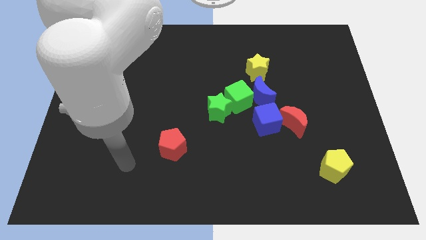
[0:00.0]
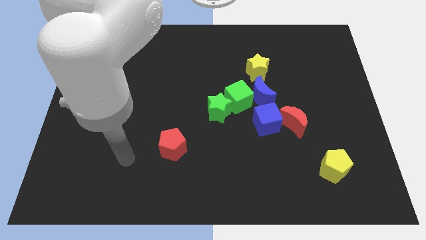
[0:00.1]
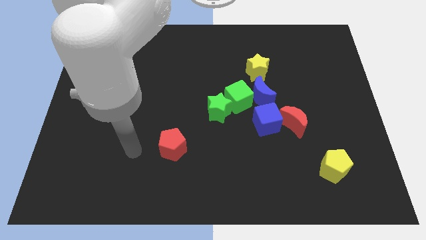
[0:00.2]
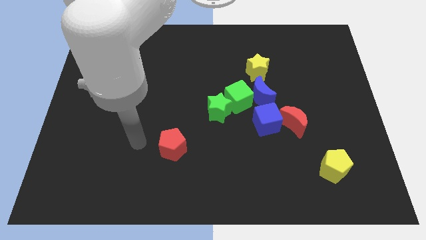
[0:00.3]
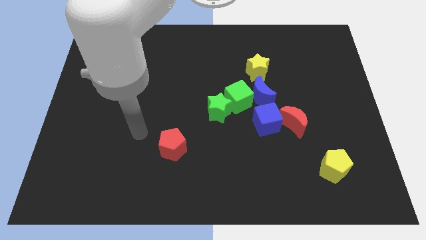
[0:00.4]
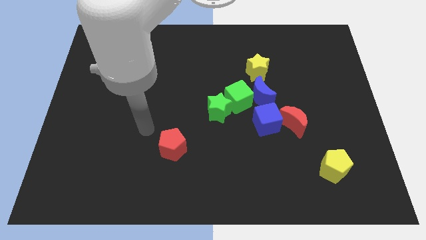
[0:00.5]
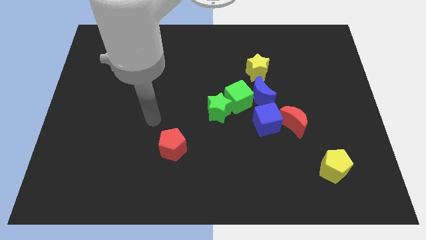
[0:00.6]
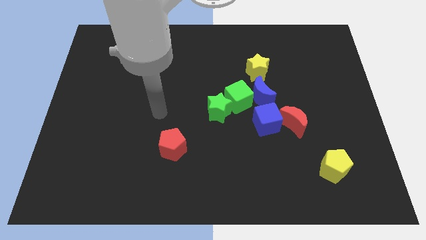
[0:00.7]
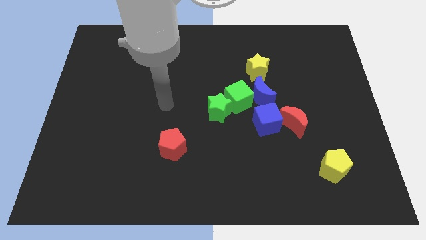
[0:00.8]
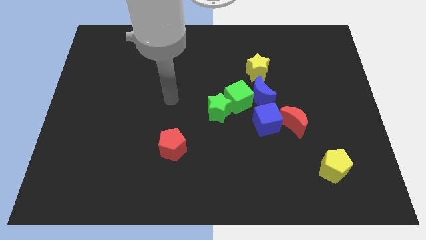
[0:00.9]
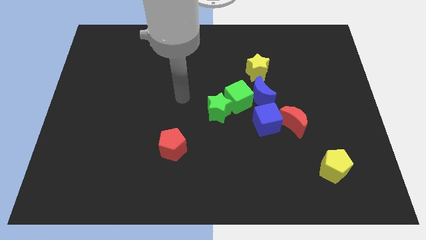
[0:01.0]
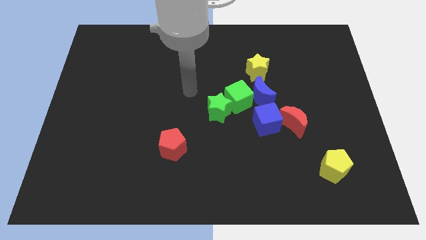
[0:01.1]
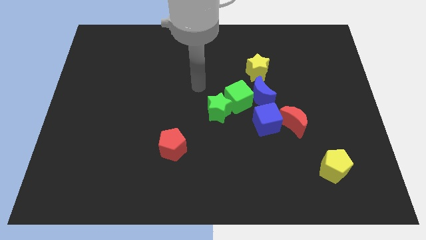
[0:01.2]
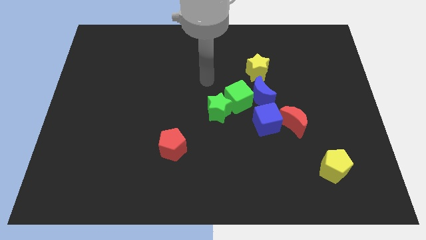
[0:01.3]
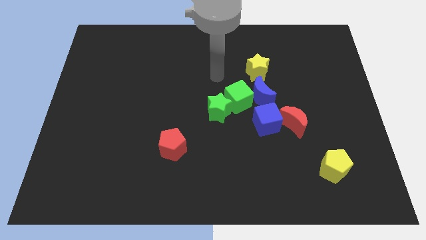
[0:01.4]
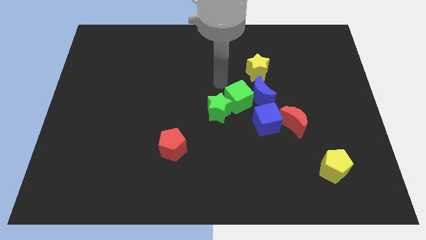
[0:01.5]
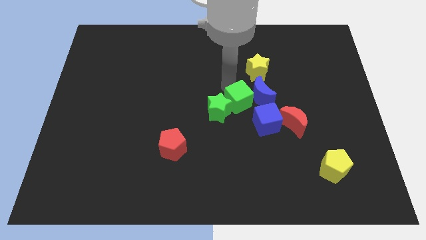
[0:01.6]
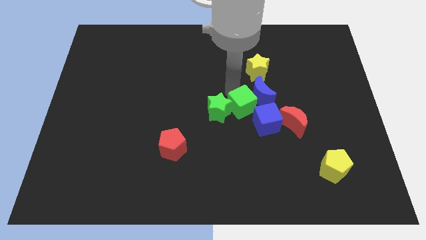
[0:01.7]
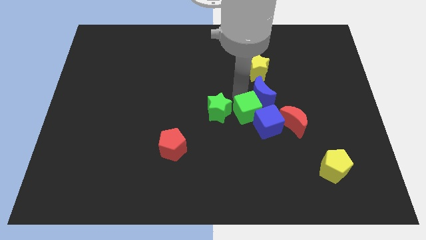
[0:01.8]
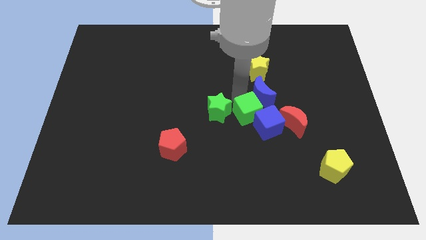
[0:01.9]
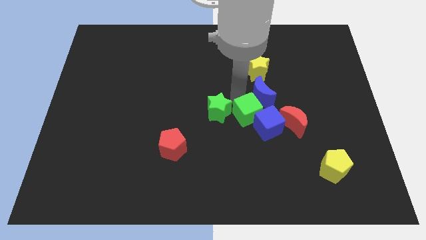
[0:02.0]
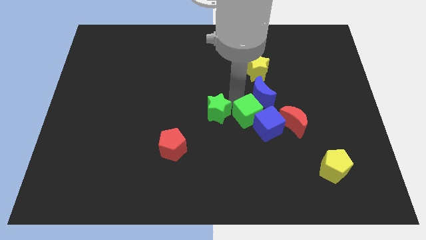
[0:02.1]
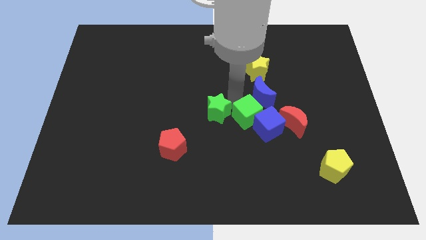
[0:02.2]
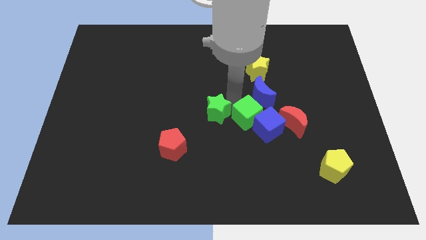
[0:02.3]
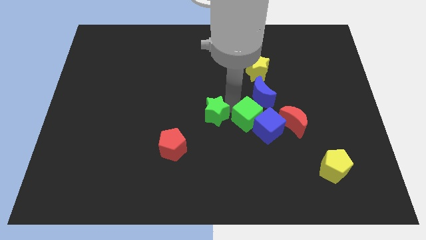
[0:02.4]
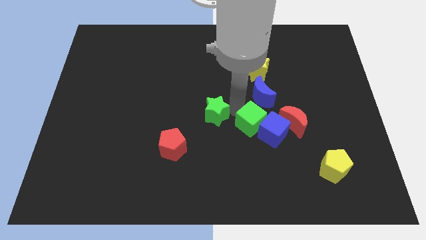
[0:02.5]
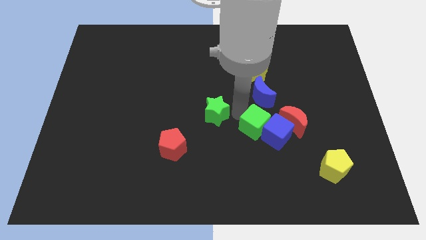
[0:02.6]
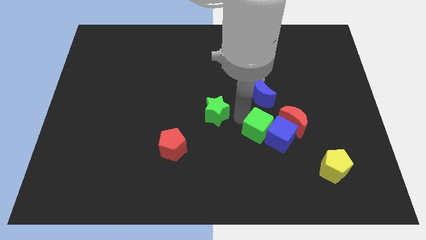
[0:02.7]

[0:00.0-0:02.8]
pull the green star apart from the green cube

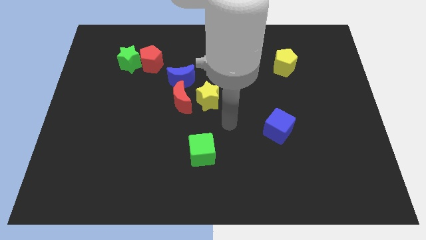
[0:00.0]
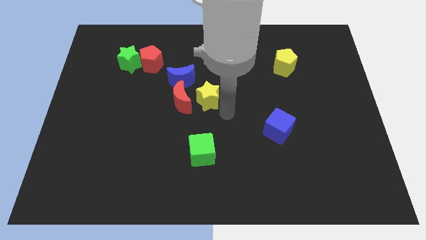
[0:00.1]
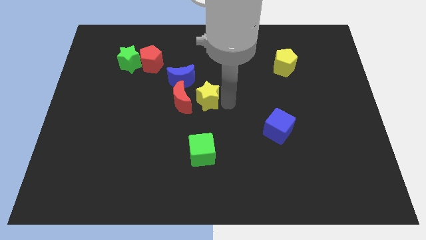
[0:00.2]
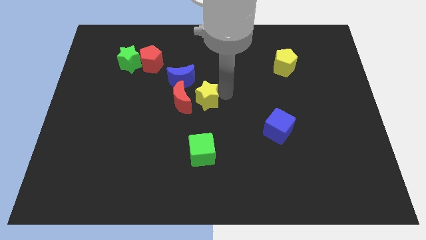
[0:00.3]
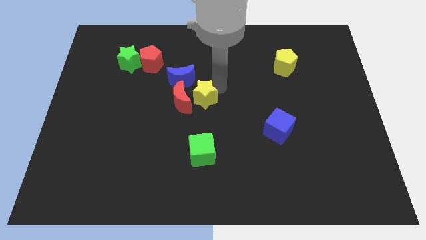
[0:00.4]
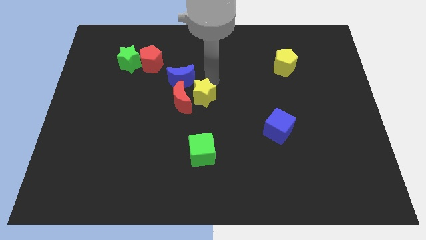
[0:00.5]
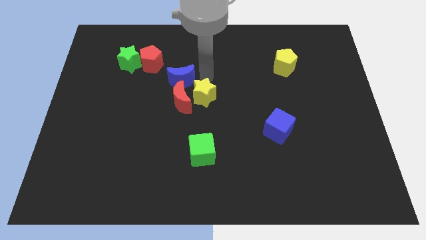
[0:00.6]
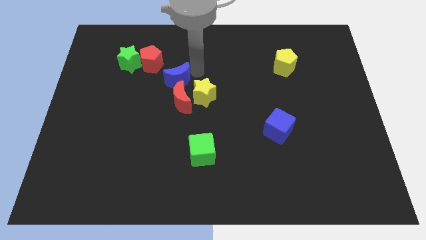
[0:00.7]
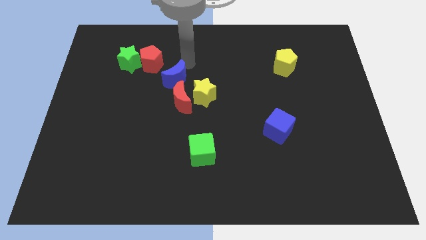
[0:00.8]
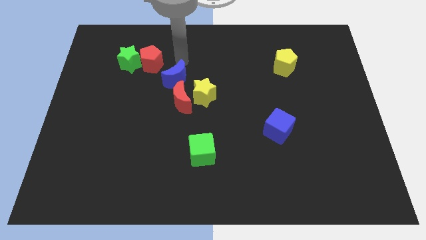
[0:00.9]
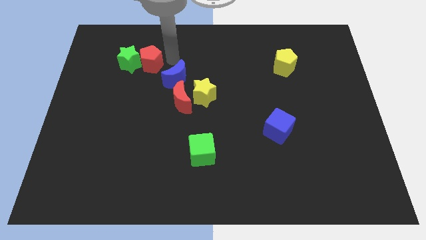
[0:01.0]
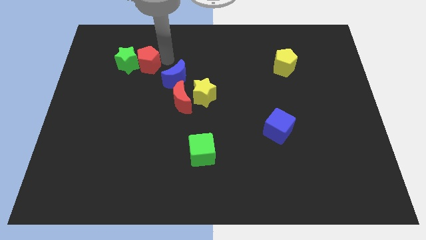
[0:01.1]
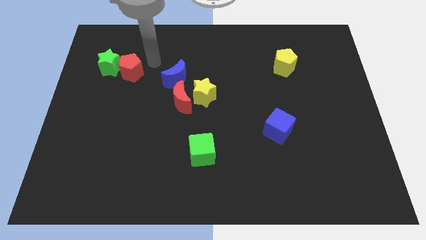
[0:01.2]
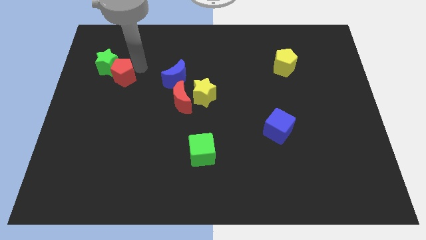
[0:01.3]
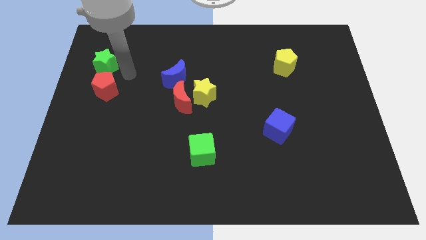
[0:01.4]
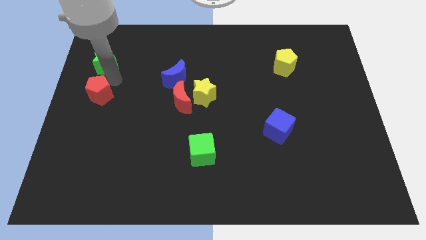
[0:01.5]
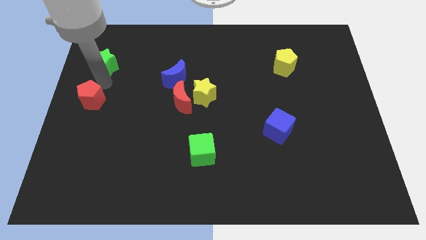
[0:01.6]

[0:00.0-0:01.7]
separate the green star from the red pentagon

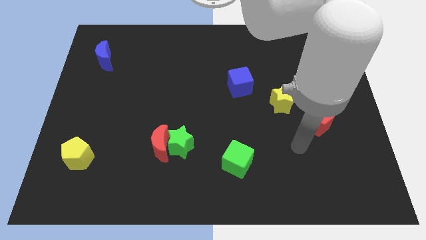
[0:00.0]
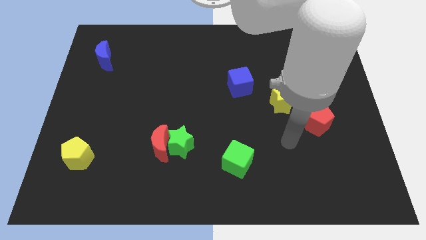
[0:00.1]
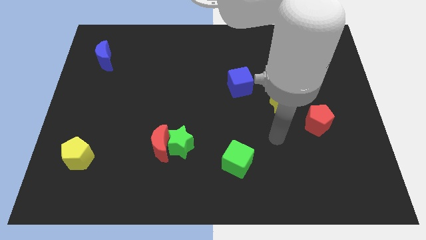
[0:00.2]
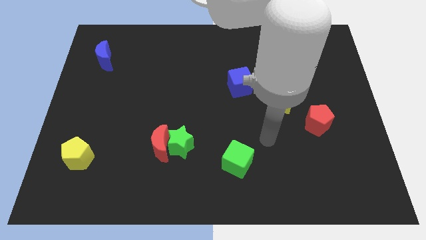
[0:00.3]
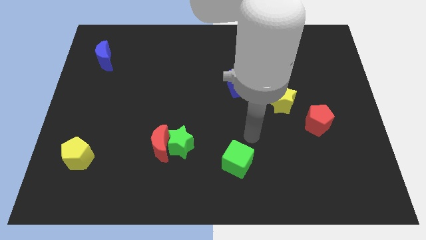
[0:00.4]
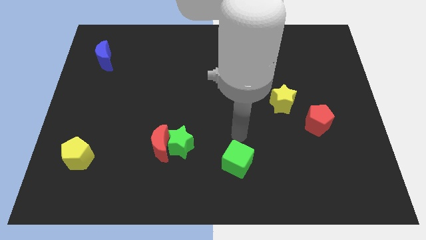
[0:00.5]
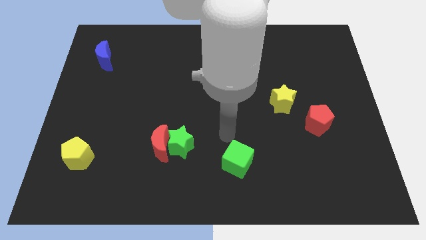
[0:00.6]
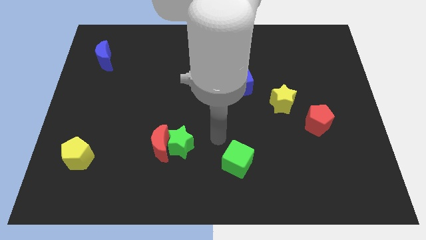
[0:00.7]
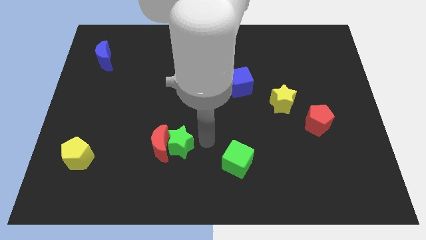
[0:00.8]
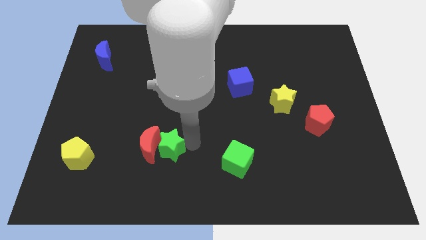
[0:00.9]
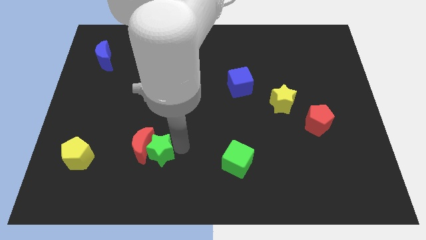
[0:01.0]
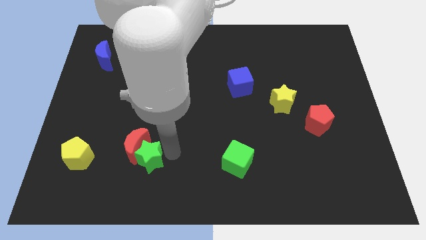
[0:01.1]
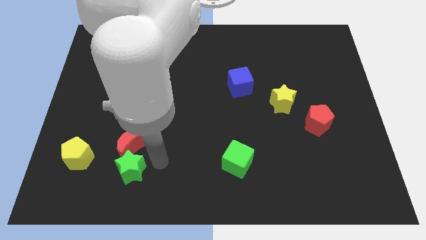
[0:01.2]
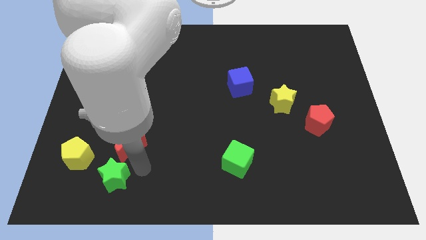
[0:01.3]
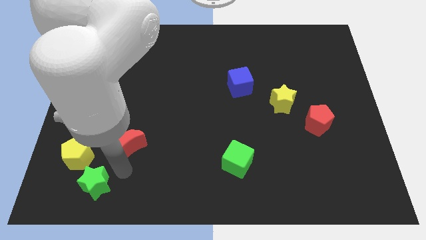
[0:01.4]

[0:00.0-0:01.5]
move the red moon away from the green star

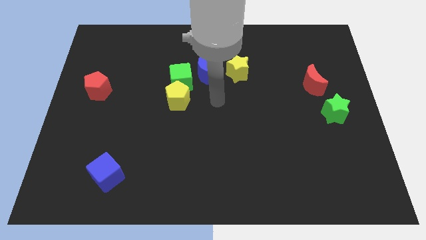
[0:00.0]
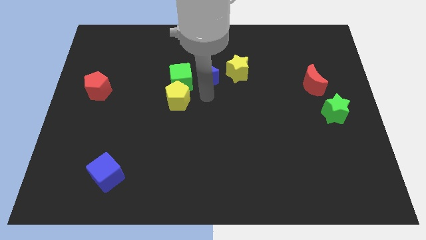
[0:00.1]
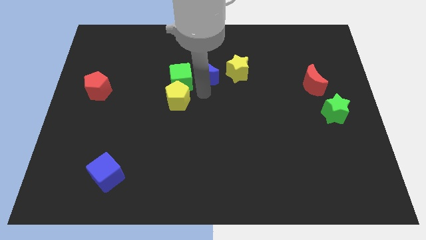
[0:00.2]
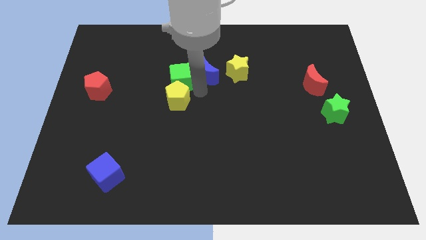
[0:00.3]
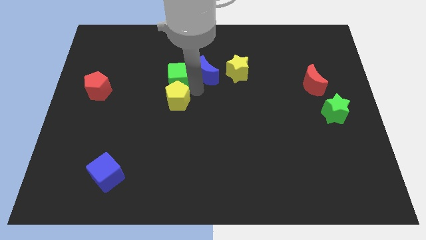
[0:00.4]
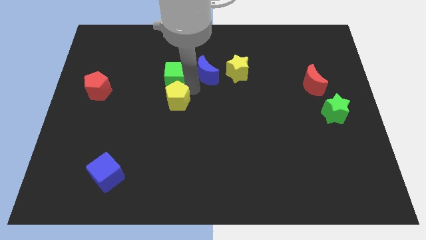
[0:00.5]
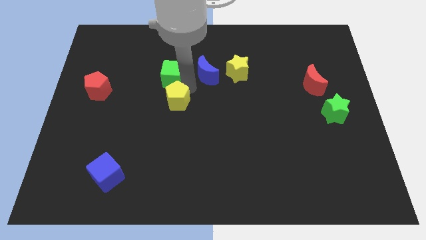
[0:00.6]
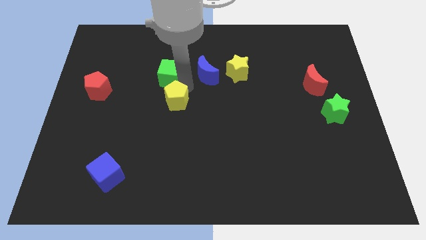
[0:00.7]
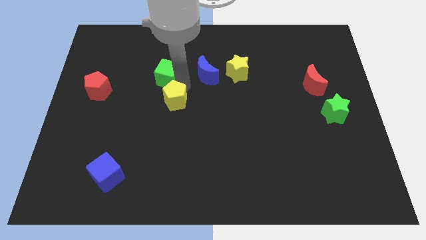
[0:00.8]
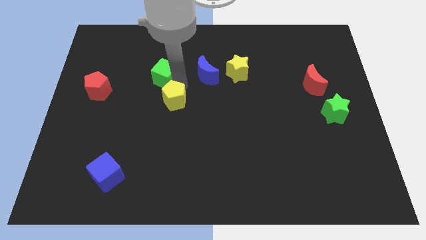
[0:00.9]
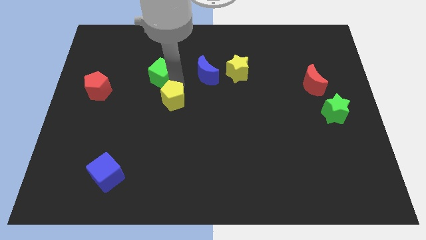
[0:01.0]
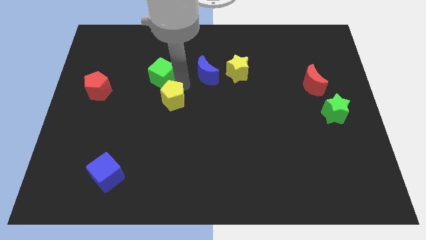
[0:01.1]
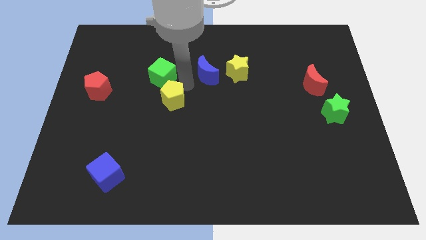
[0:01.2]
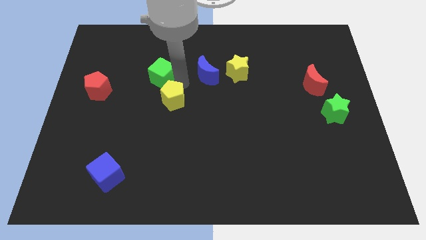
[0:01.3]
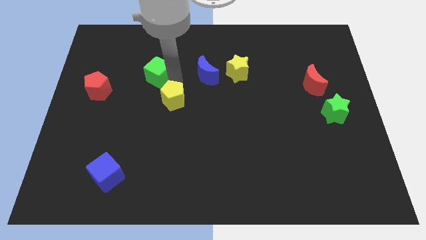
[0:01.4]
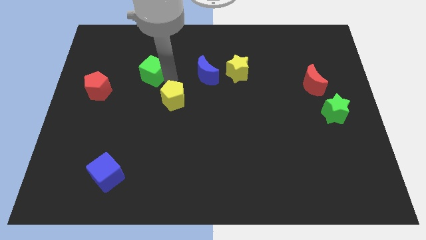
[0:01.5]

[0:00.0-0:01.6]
move the green cube away from the yellow pentagon and blue moon

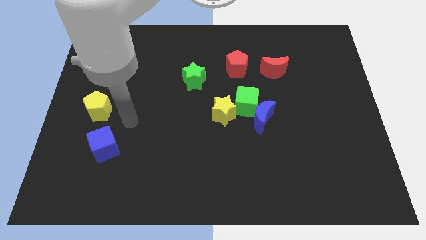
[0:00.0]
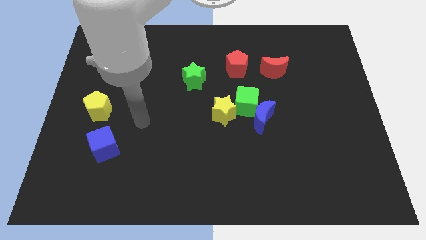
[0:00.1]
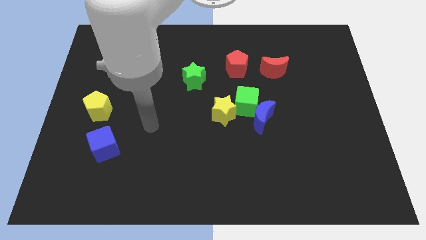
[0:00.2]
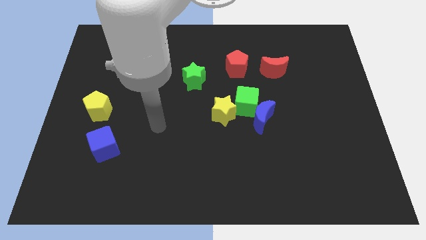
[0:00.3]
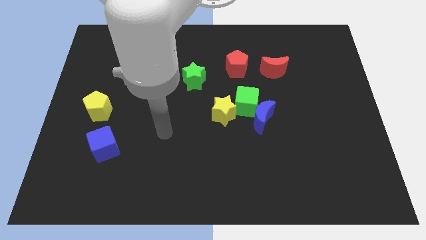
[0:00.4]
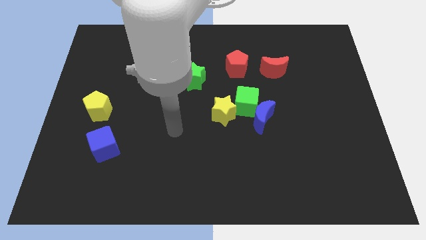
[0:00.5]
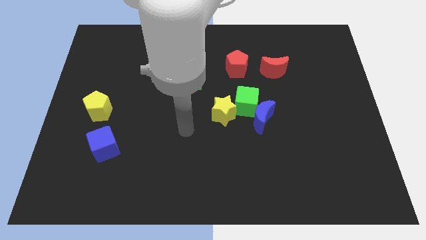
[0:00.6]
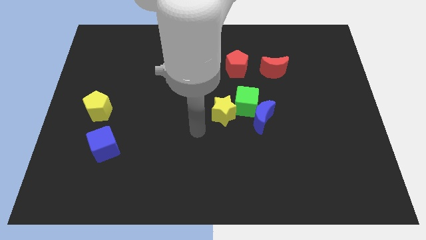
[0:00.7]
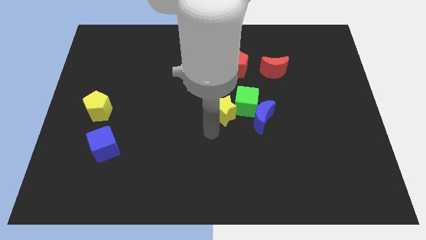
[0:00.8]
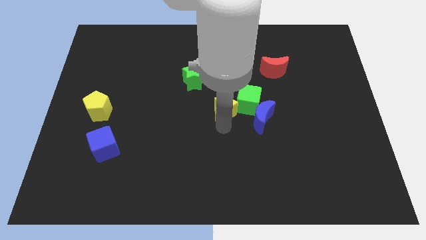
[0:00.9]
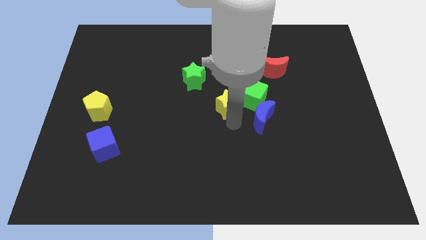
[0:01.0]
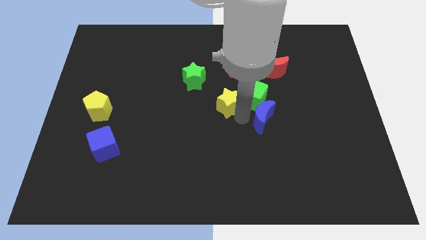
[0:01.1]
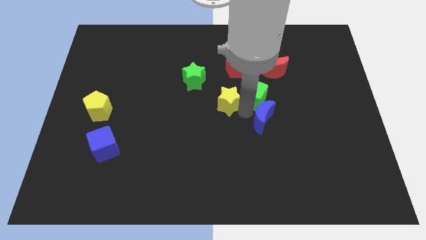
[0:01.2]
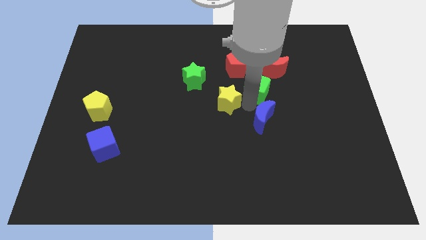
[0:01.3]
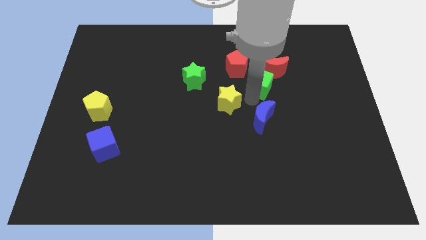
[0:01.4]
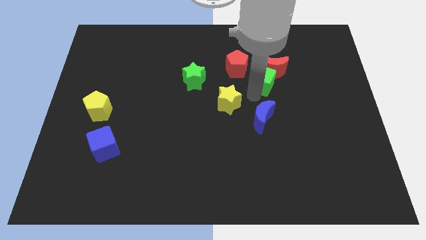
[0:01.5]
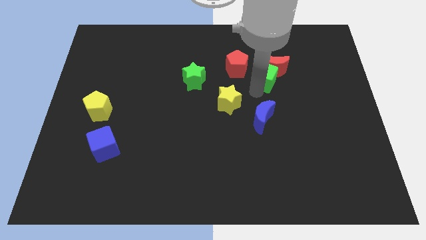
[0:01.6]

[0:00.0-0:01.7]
pull the green cube apart from the blue moon and yellow star
